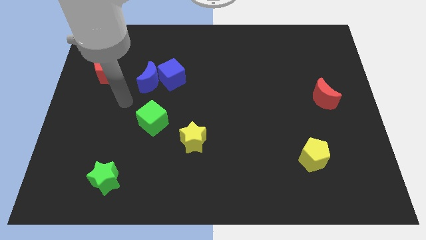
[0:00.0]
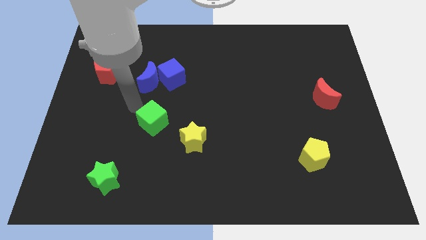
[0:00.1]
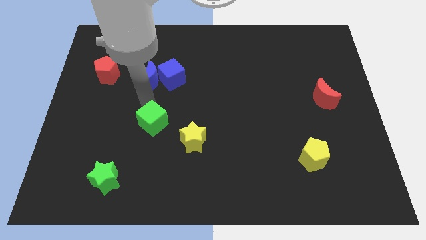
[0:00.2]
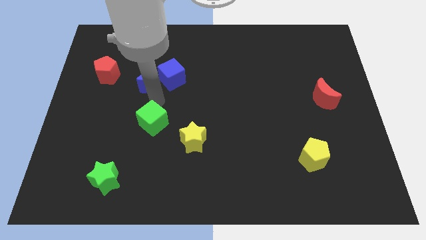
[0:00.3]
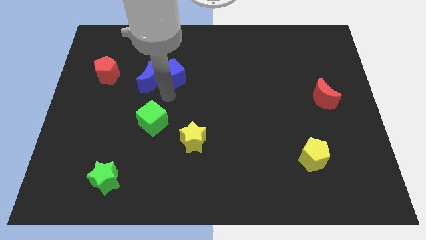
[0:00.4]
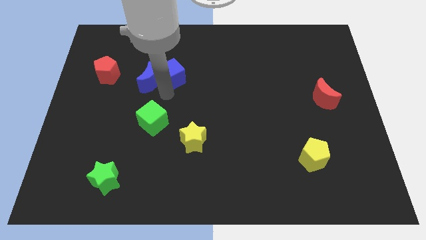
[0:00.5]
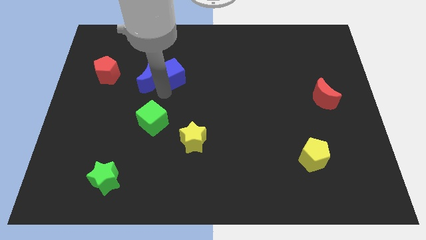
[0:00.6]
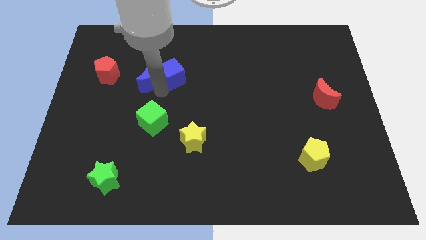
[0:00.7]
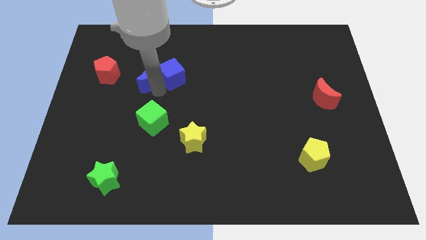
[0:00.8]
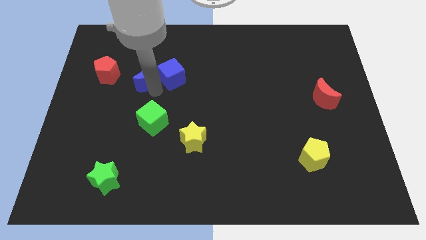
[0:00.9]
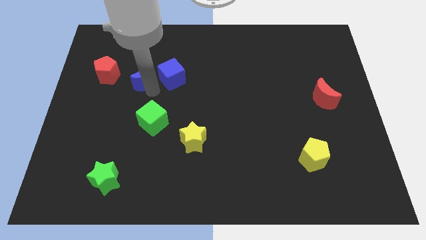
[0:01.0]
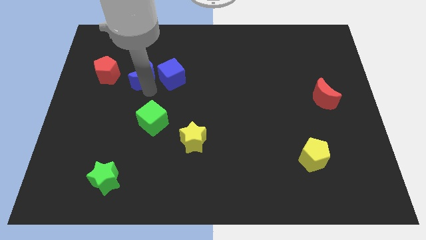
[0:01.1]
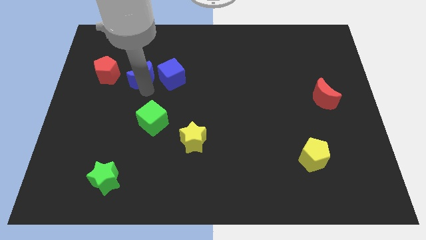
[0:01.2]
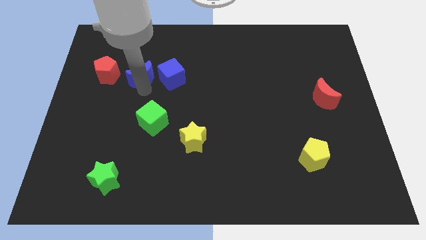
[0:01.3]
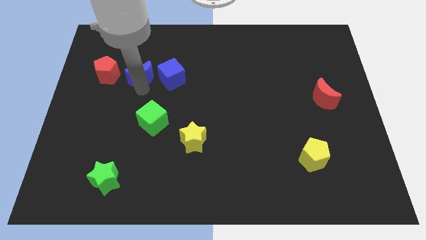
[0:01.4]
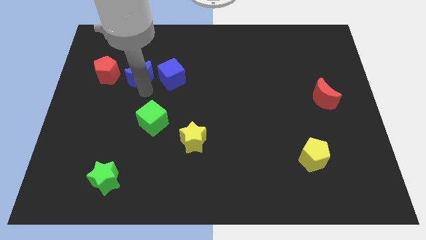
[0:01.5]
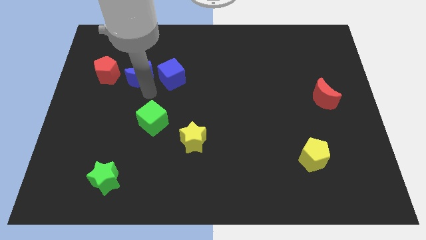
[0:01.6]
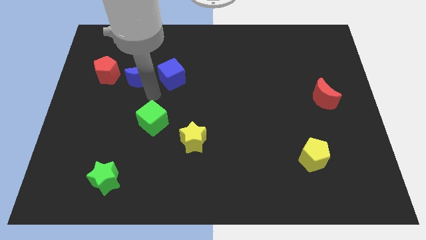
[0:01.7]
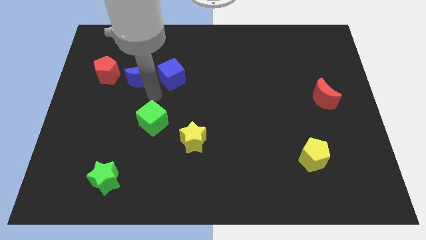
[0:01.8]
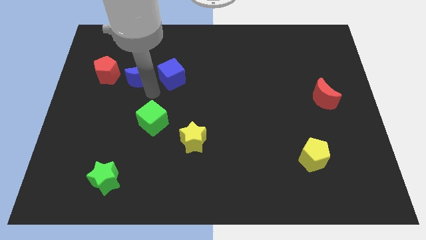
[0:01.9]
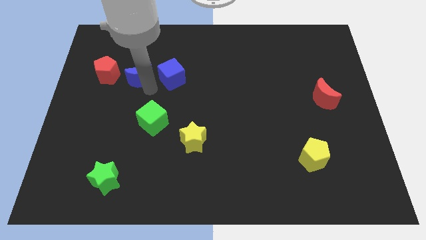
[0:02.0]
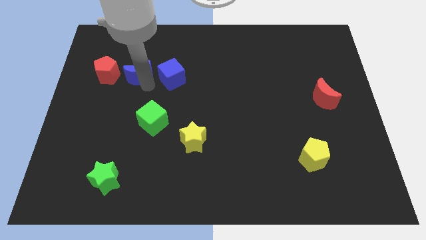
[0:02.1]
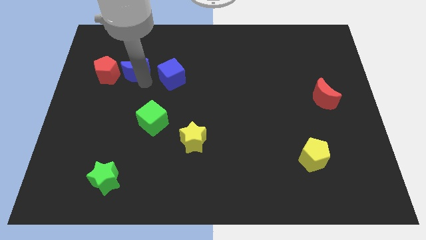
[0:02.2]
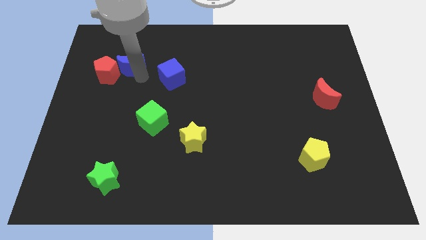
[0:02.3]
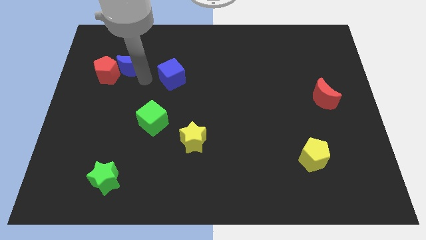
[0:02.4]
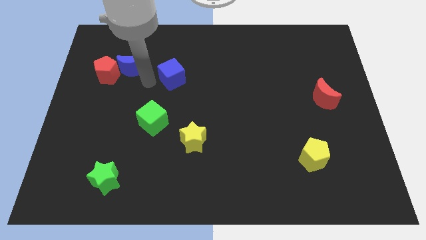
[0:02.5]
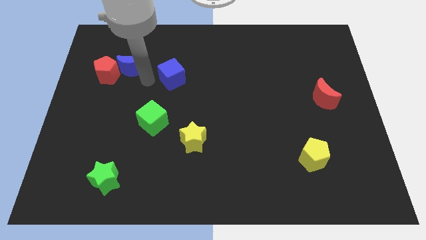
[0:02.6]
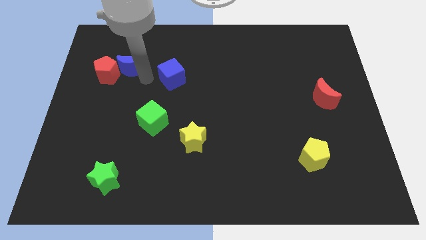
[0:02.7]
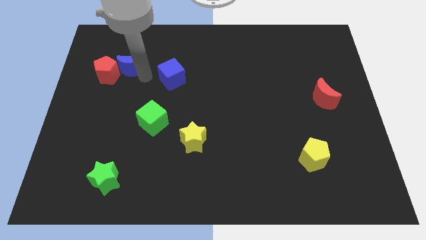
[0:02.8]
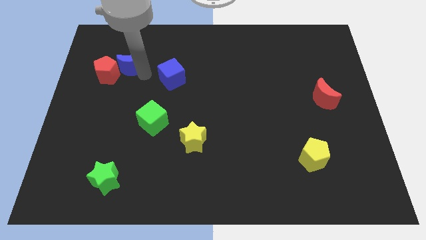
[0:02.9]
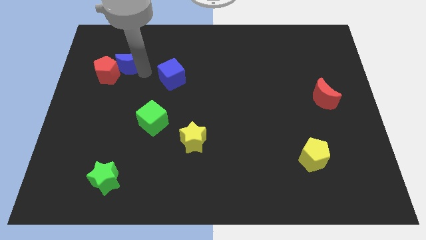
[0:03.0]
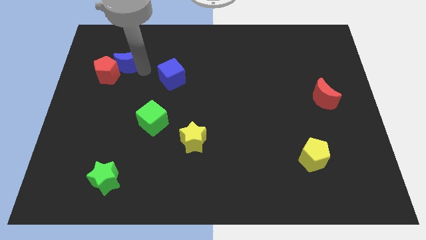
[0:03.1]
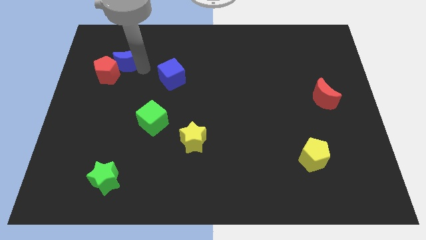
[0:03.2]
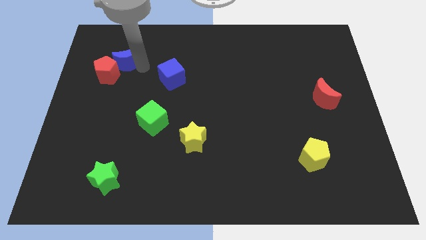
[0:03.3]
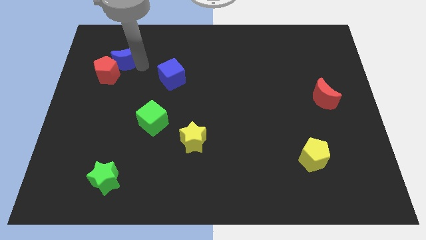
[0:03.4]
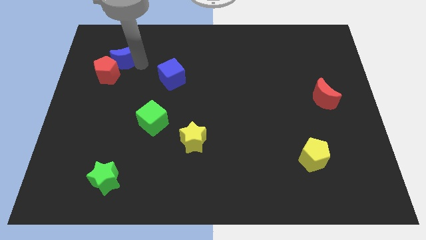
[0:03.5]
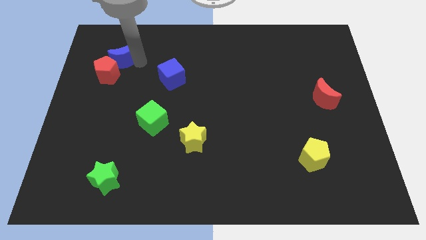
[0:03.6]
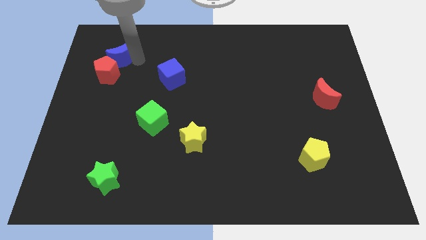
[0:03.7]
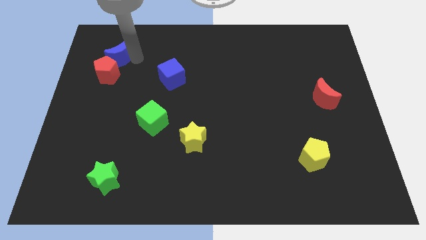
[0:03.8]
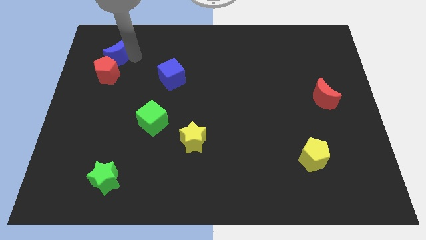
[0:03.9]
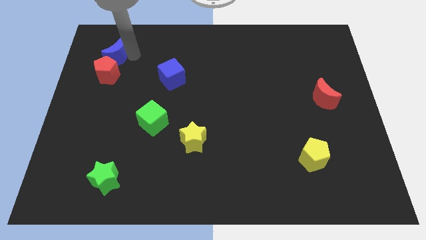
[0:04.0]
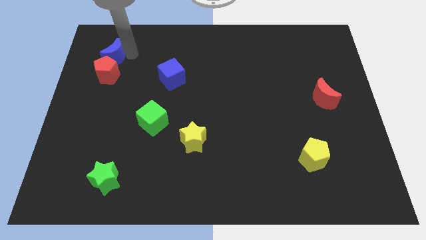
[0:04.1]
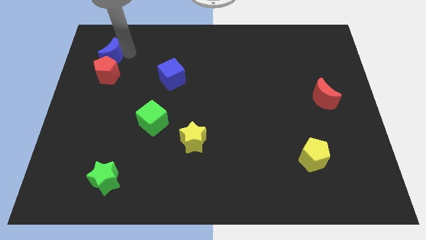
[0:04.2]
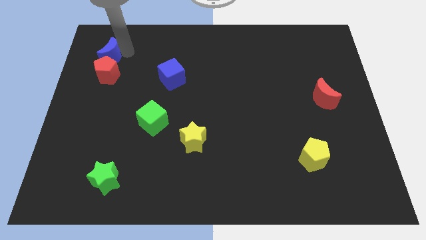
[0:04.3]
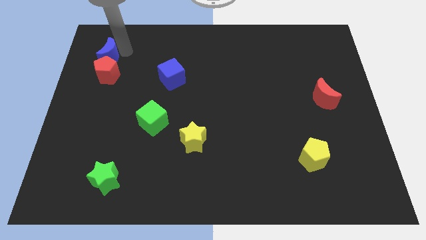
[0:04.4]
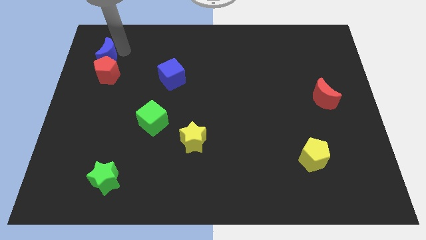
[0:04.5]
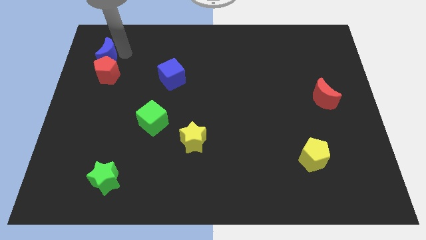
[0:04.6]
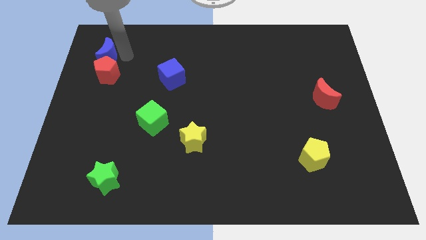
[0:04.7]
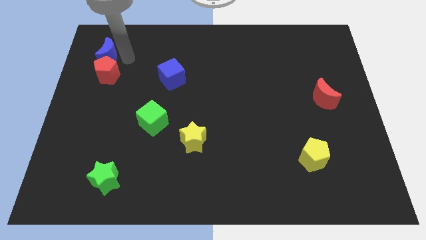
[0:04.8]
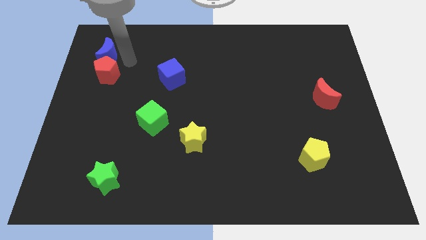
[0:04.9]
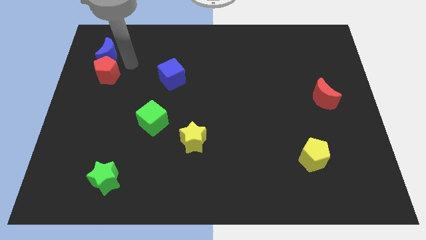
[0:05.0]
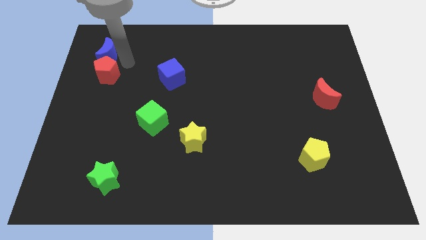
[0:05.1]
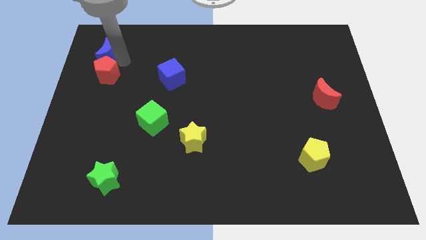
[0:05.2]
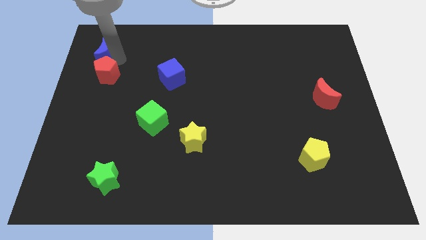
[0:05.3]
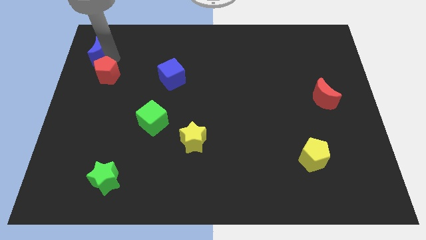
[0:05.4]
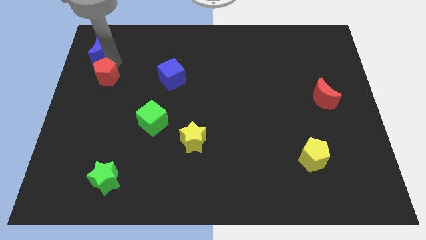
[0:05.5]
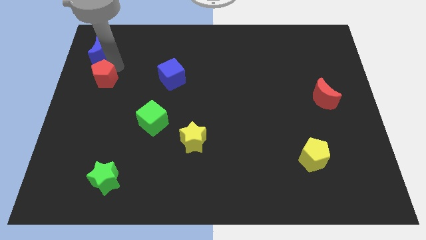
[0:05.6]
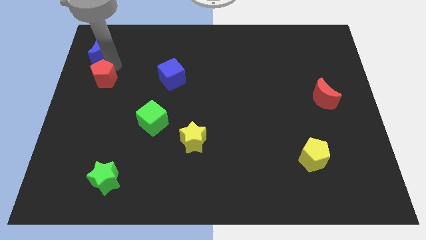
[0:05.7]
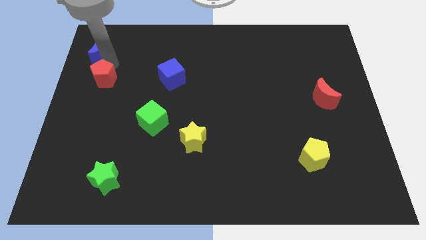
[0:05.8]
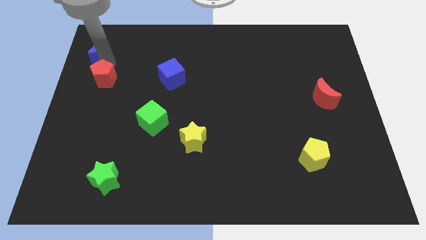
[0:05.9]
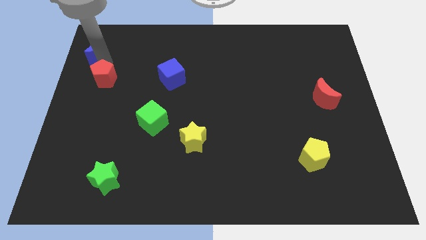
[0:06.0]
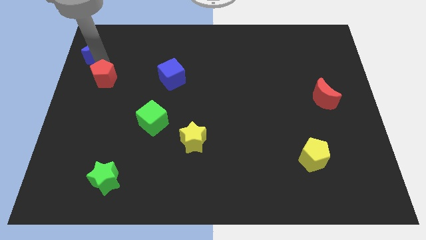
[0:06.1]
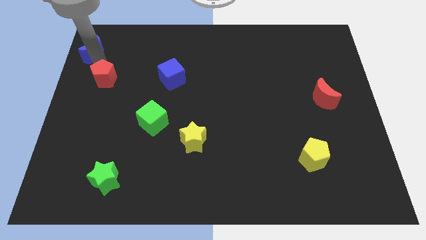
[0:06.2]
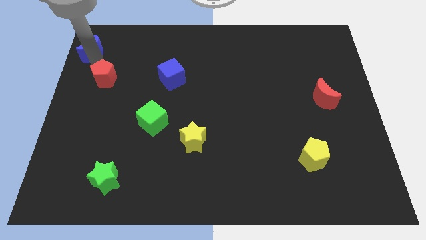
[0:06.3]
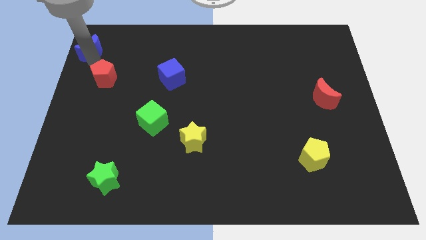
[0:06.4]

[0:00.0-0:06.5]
move the blue moon to the top left
